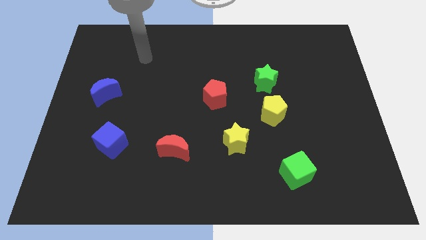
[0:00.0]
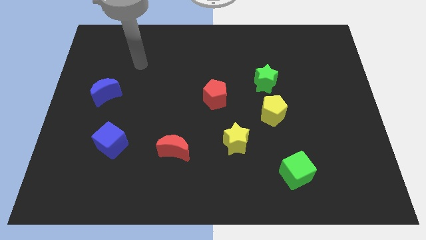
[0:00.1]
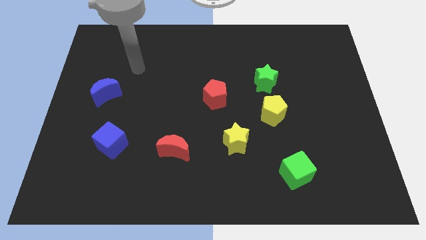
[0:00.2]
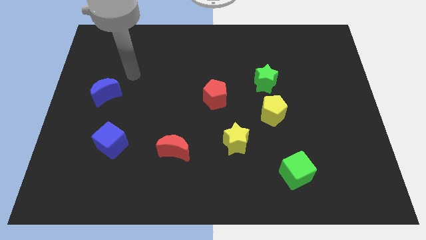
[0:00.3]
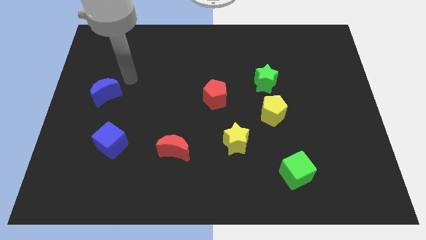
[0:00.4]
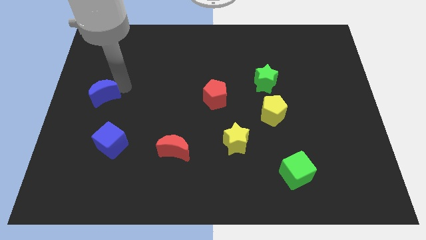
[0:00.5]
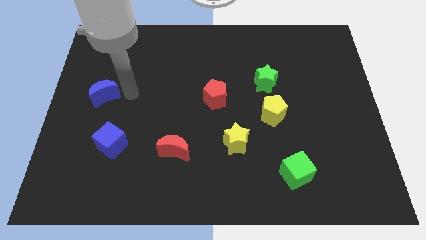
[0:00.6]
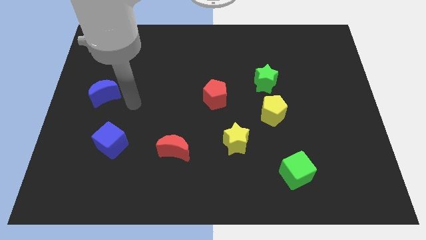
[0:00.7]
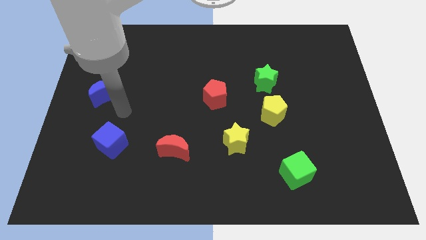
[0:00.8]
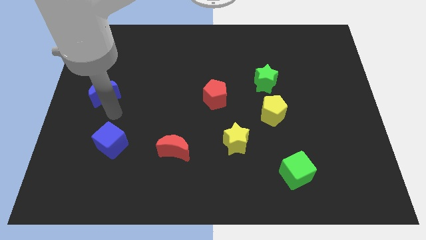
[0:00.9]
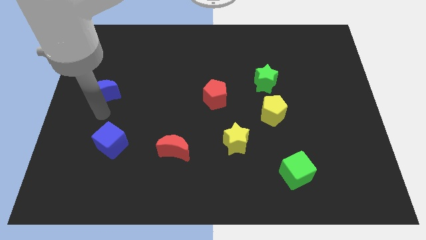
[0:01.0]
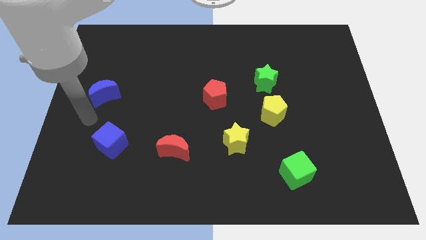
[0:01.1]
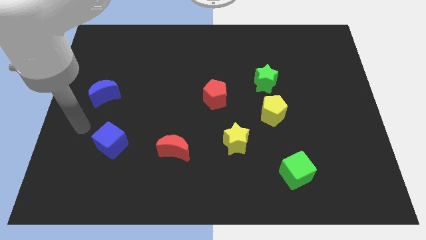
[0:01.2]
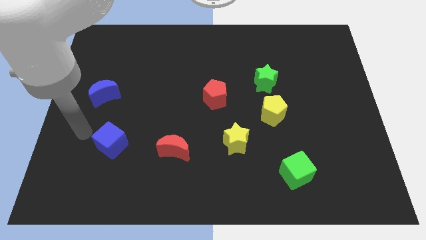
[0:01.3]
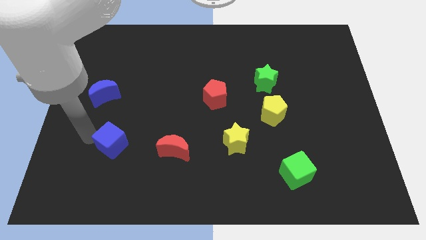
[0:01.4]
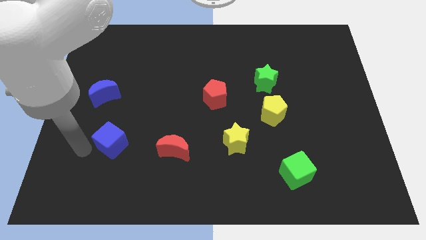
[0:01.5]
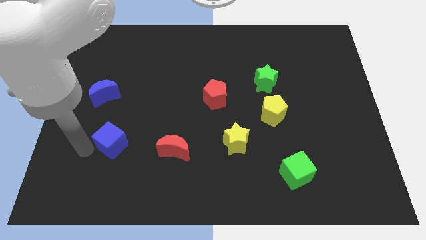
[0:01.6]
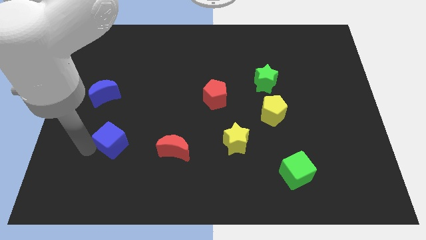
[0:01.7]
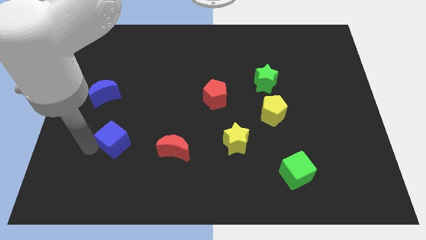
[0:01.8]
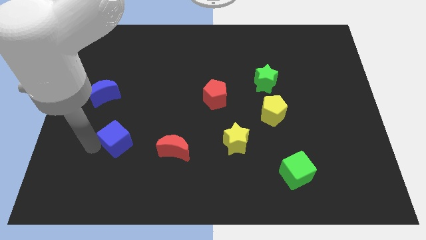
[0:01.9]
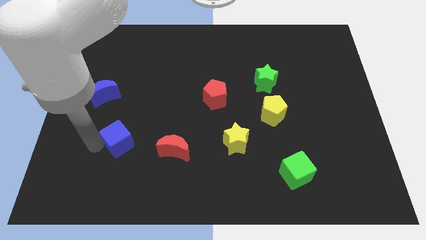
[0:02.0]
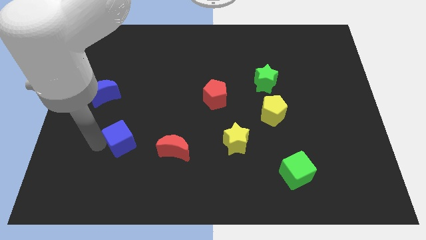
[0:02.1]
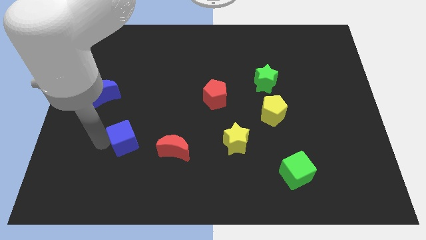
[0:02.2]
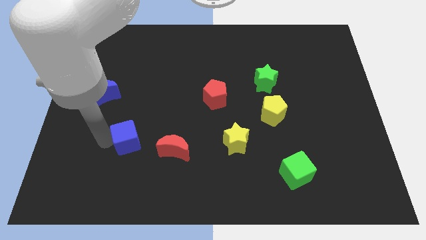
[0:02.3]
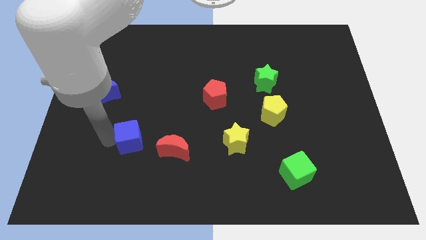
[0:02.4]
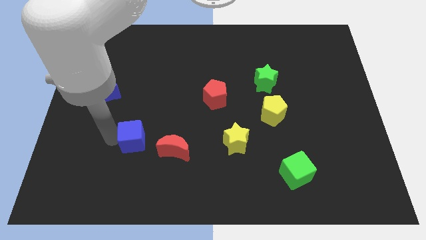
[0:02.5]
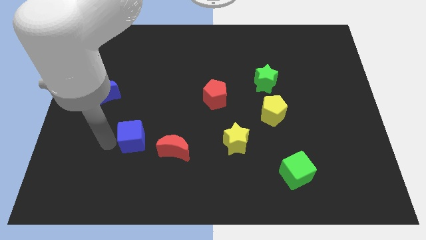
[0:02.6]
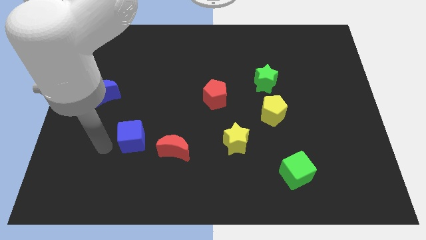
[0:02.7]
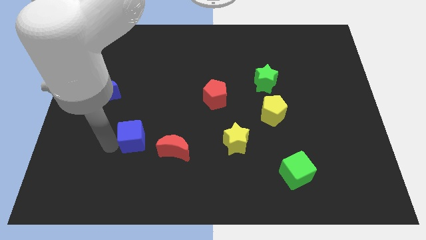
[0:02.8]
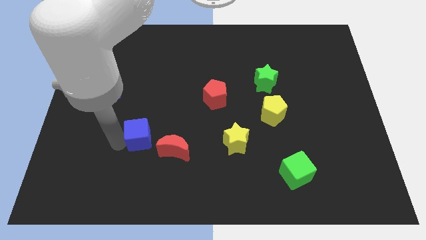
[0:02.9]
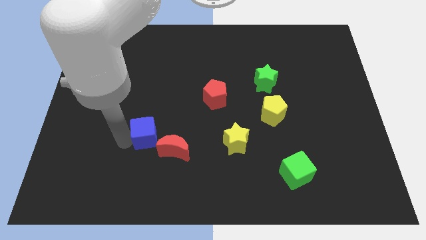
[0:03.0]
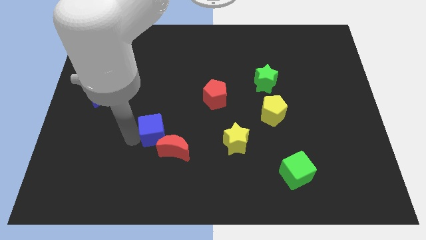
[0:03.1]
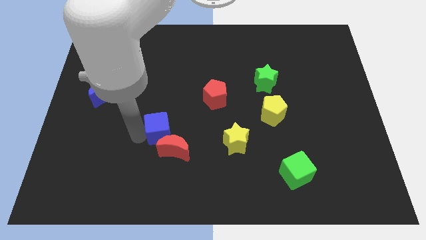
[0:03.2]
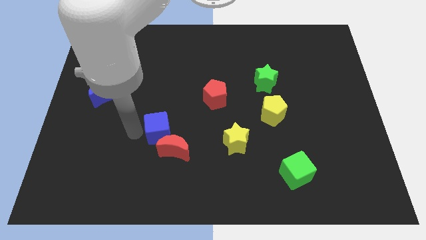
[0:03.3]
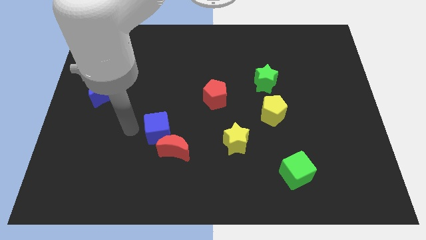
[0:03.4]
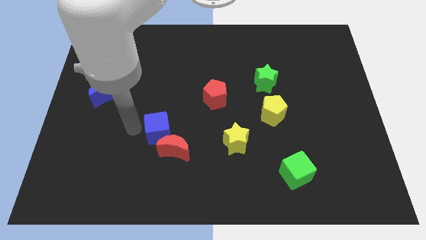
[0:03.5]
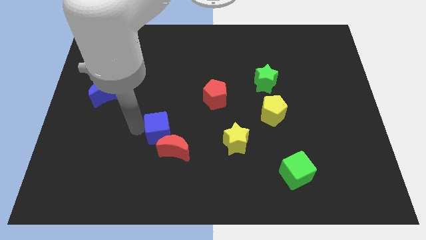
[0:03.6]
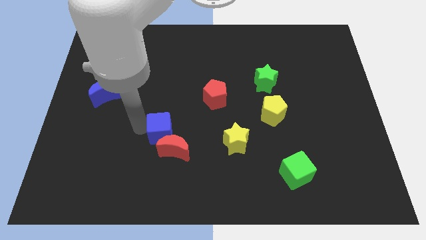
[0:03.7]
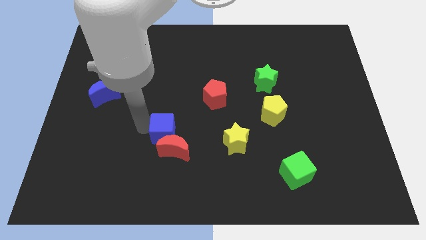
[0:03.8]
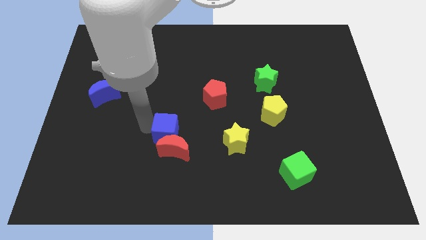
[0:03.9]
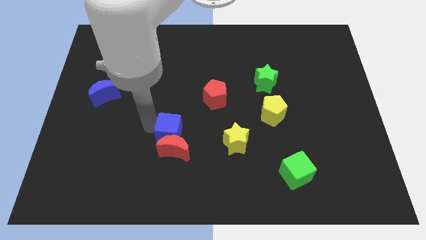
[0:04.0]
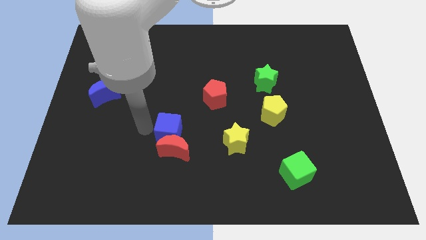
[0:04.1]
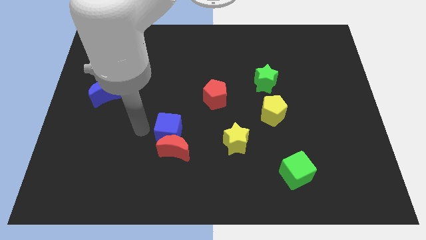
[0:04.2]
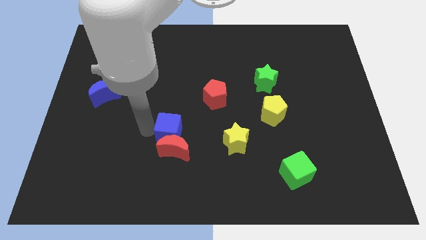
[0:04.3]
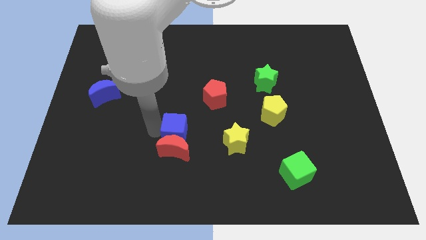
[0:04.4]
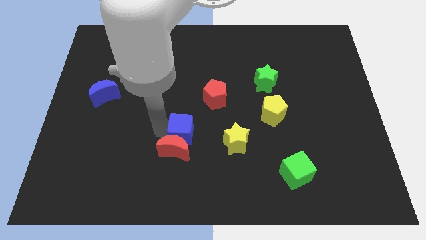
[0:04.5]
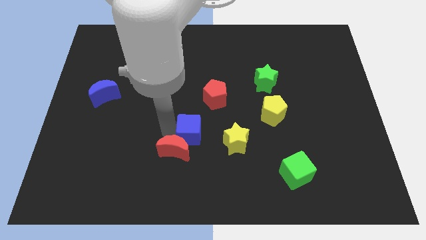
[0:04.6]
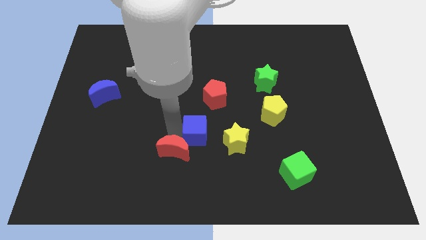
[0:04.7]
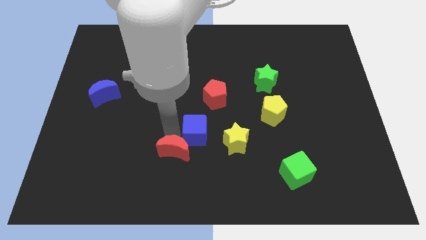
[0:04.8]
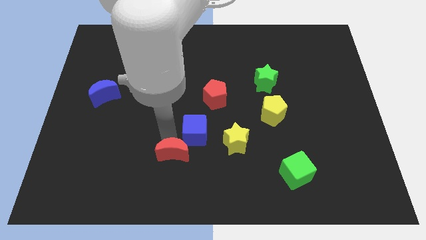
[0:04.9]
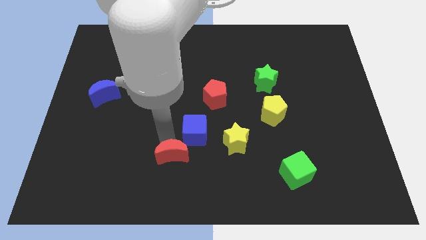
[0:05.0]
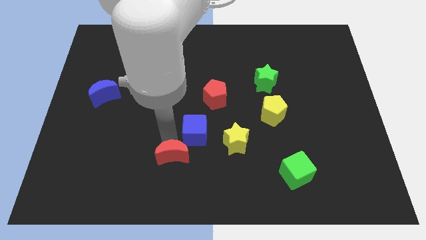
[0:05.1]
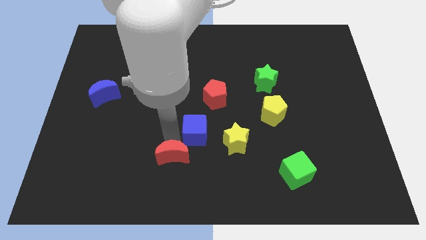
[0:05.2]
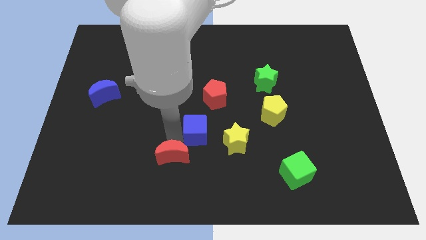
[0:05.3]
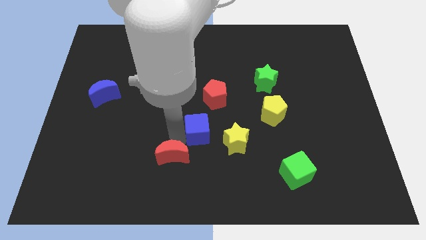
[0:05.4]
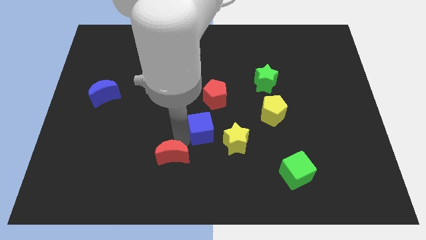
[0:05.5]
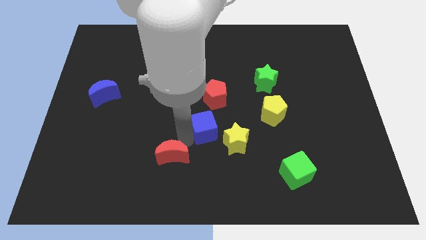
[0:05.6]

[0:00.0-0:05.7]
slide the blue cube to the right

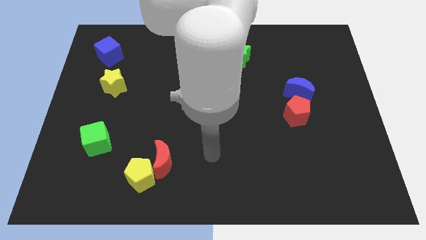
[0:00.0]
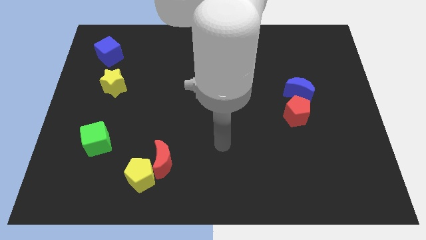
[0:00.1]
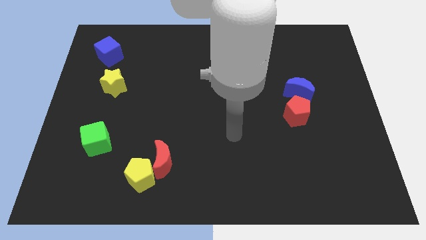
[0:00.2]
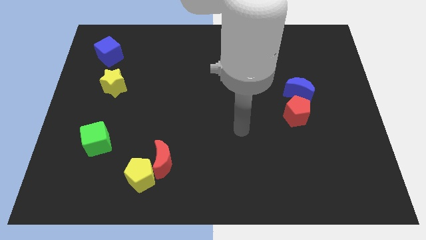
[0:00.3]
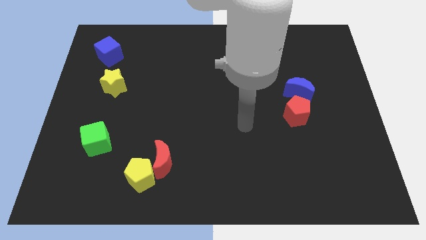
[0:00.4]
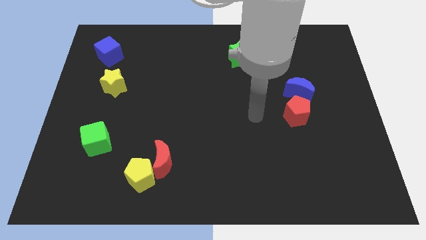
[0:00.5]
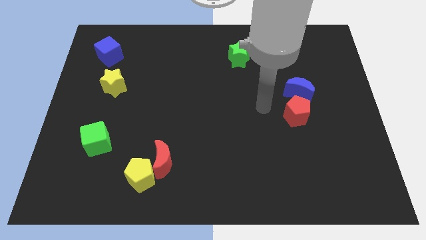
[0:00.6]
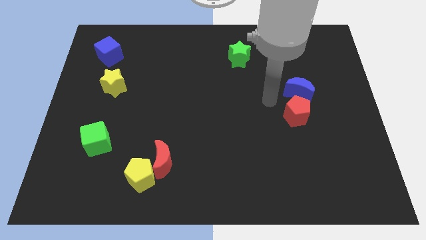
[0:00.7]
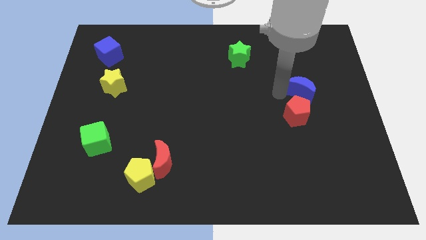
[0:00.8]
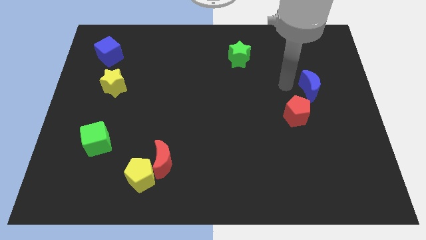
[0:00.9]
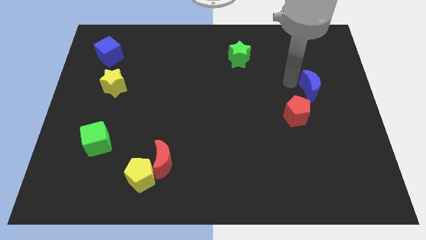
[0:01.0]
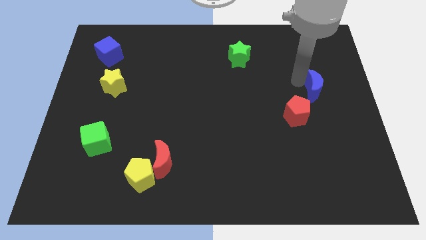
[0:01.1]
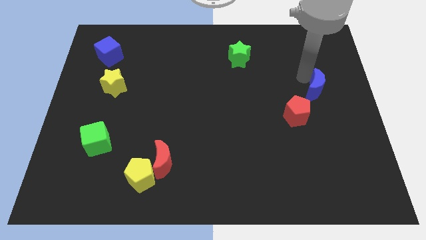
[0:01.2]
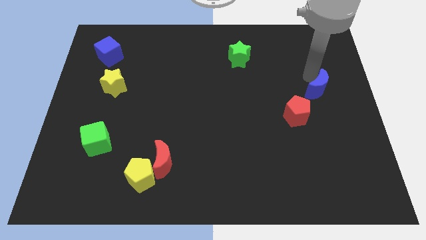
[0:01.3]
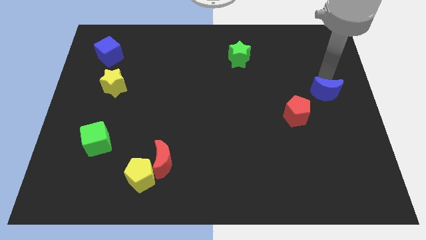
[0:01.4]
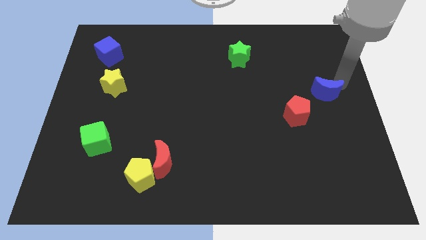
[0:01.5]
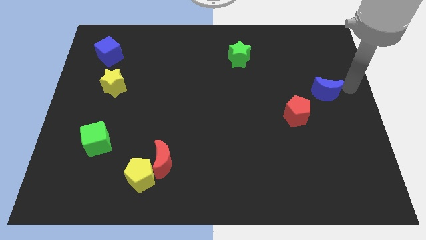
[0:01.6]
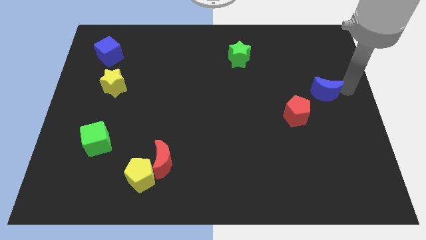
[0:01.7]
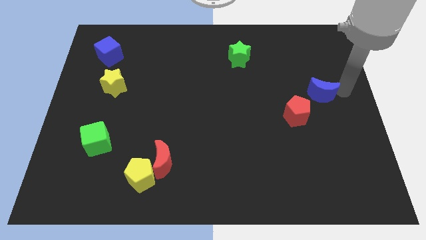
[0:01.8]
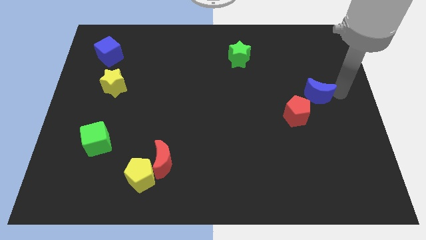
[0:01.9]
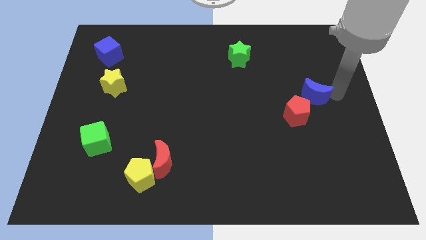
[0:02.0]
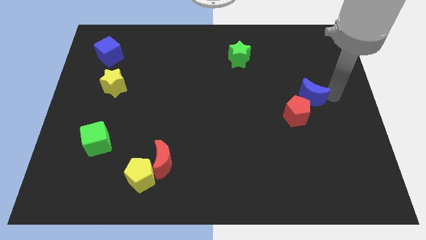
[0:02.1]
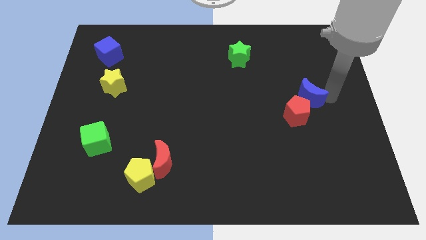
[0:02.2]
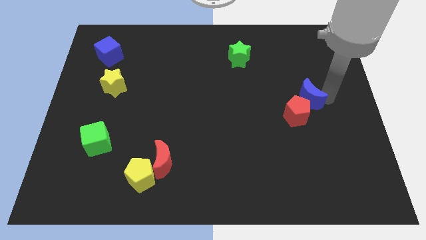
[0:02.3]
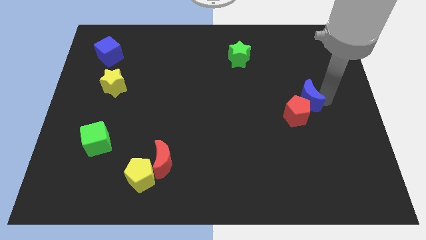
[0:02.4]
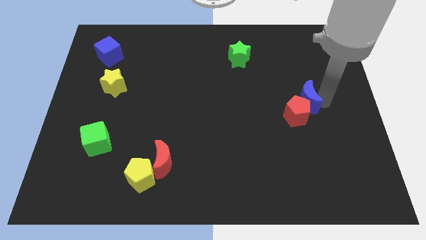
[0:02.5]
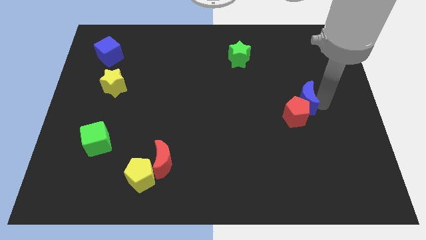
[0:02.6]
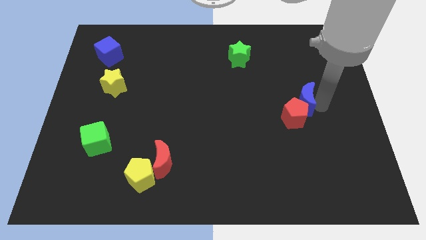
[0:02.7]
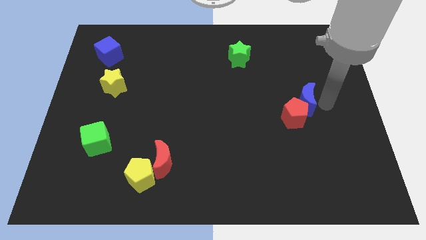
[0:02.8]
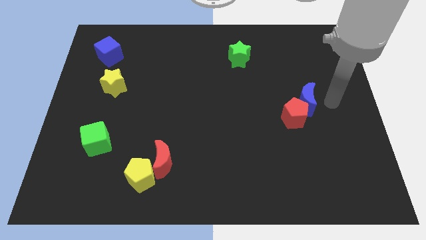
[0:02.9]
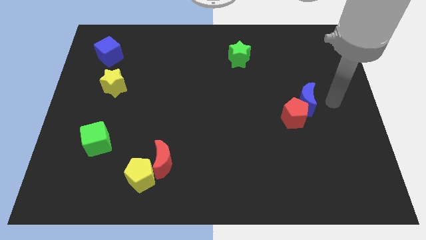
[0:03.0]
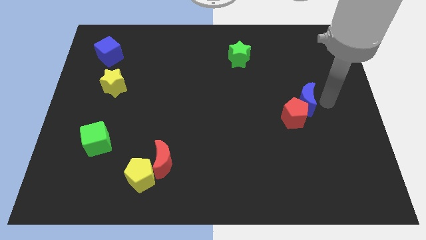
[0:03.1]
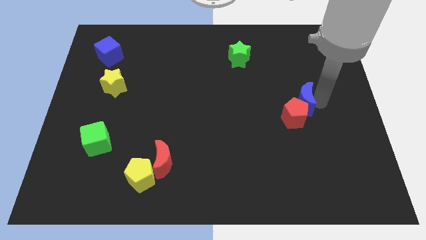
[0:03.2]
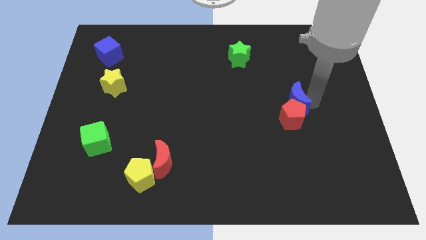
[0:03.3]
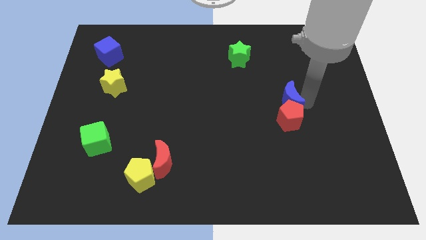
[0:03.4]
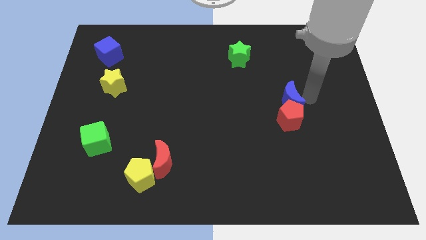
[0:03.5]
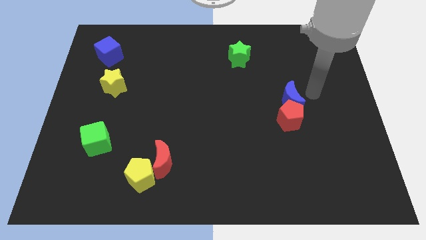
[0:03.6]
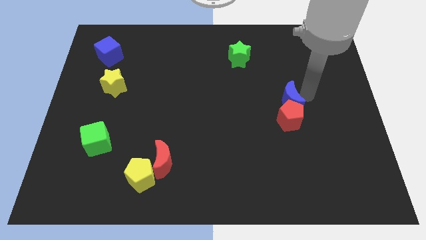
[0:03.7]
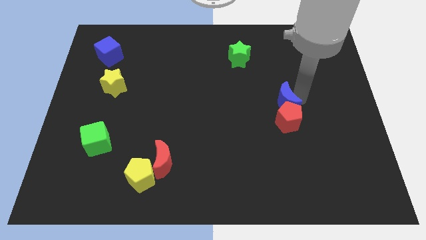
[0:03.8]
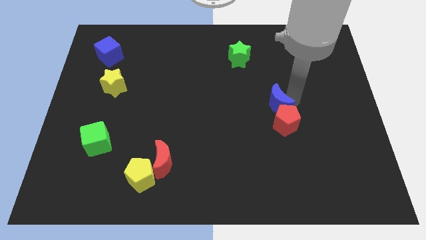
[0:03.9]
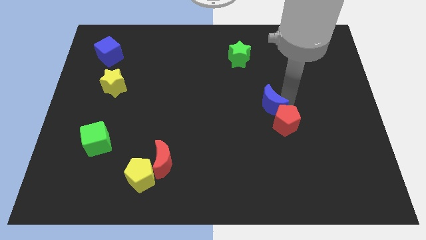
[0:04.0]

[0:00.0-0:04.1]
slide the blue moon a little diagonally downwards and left
